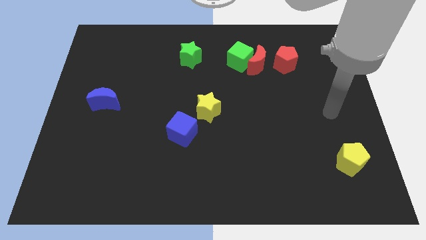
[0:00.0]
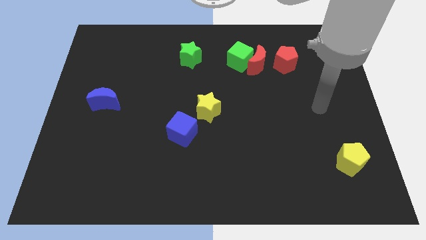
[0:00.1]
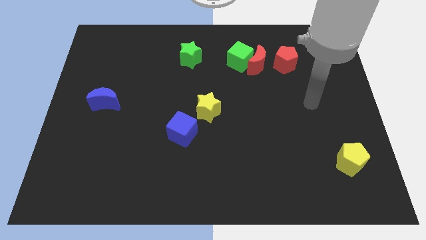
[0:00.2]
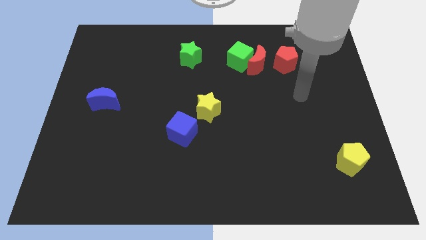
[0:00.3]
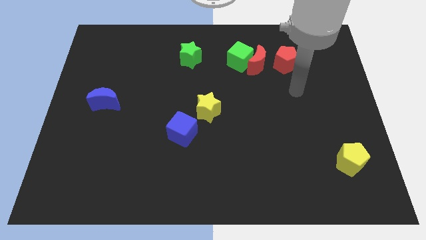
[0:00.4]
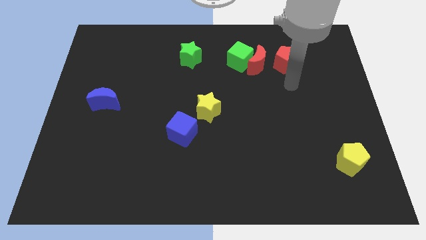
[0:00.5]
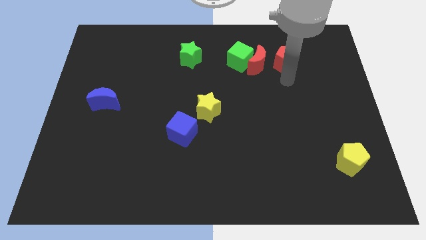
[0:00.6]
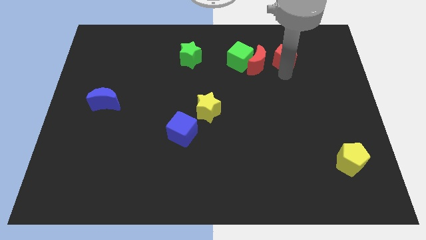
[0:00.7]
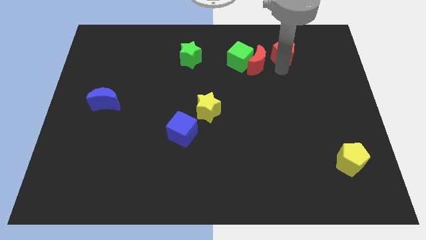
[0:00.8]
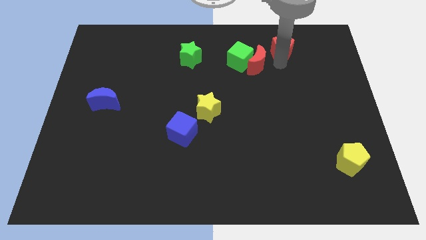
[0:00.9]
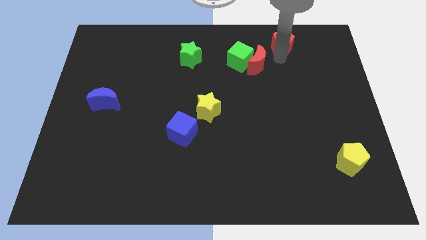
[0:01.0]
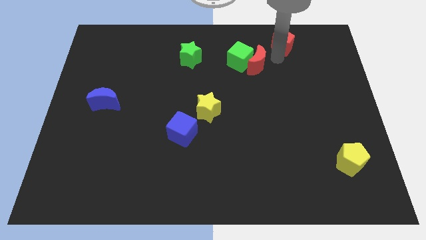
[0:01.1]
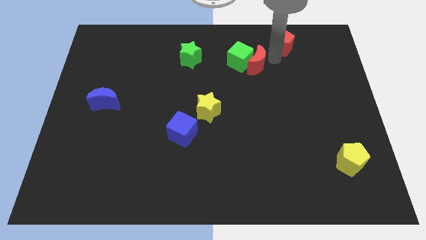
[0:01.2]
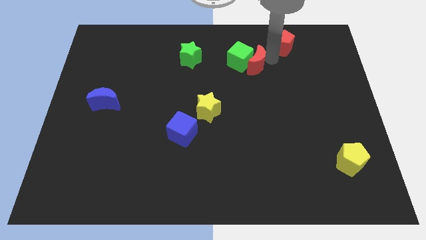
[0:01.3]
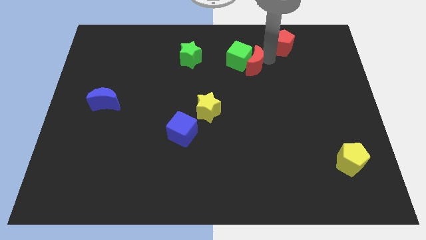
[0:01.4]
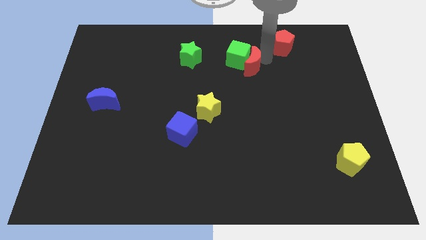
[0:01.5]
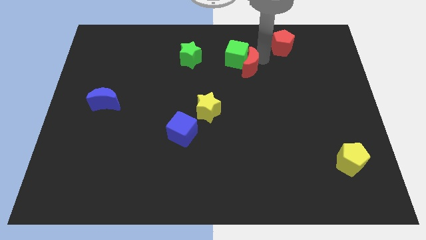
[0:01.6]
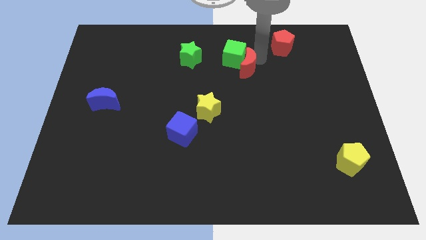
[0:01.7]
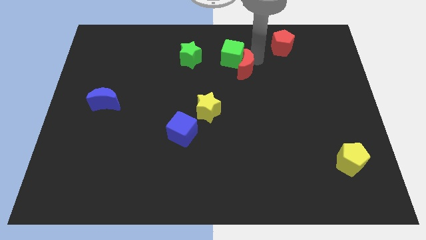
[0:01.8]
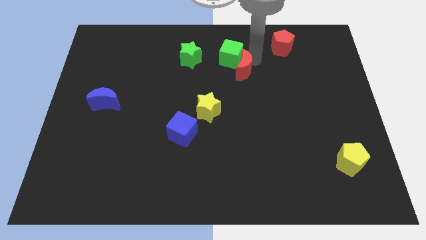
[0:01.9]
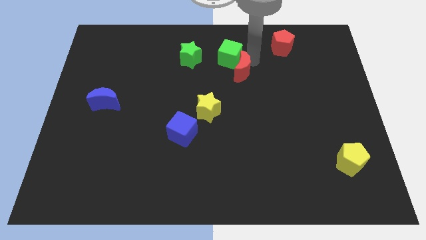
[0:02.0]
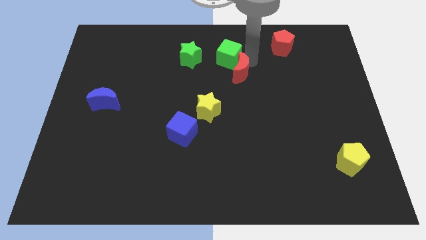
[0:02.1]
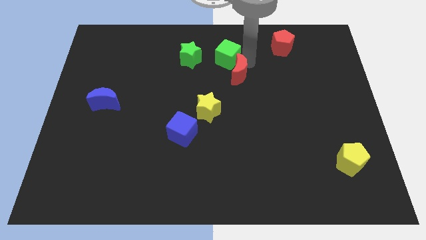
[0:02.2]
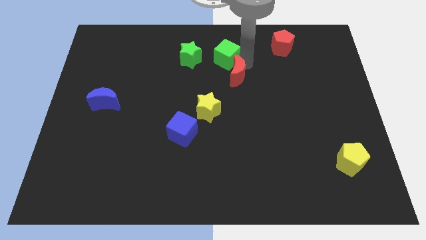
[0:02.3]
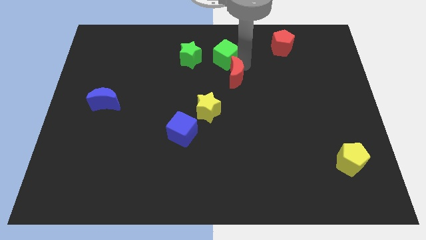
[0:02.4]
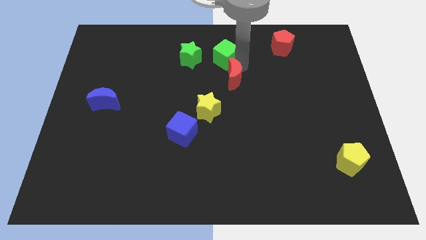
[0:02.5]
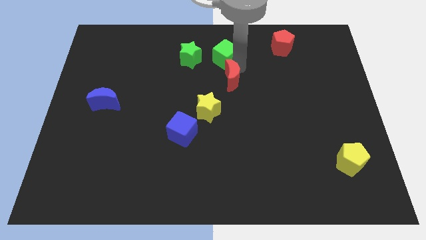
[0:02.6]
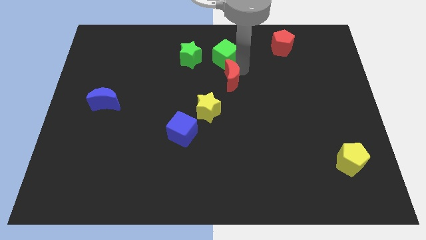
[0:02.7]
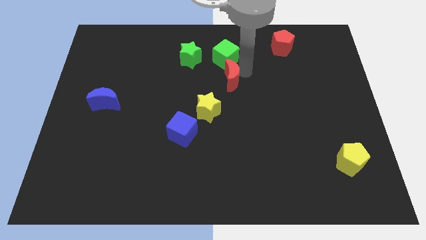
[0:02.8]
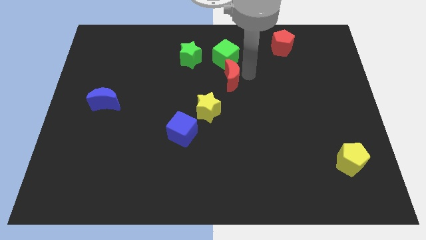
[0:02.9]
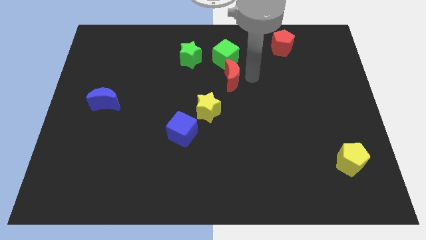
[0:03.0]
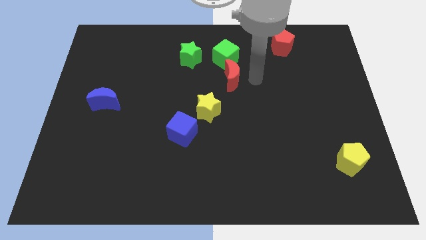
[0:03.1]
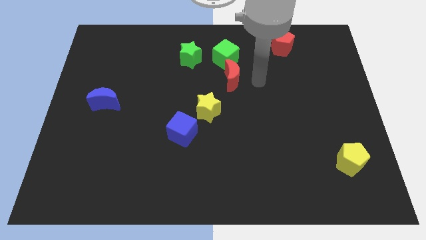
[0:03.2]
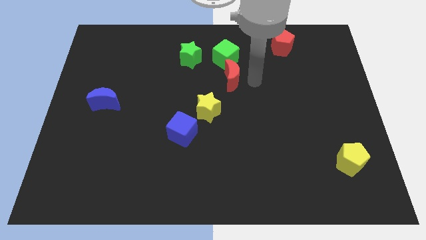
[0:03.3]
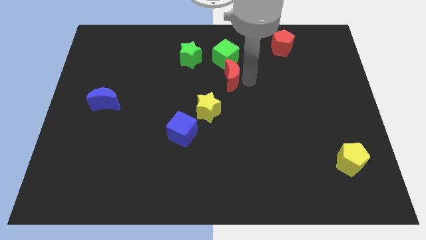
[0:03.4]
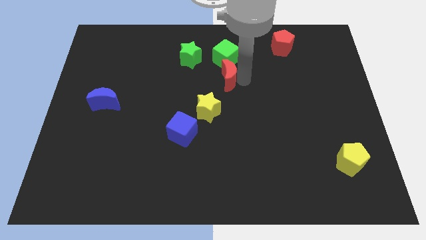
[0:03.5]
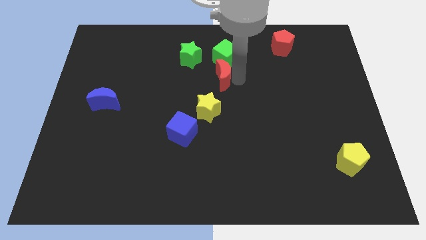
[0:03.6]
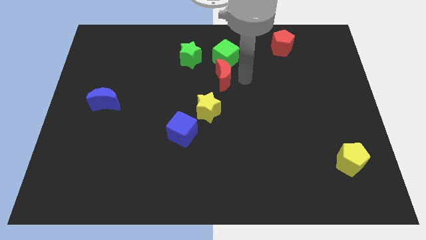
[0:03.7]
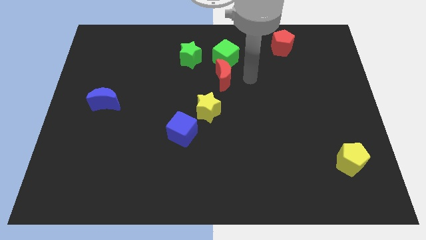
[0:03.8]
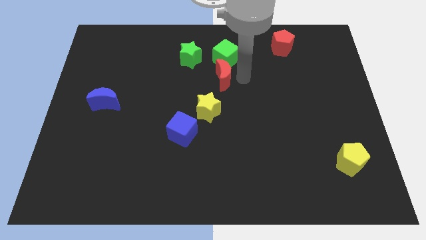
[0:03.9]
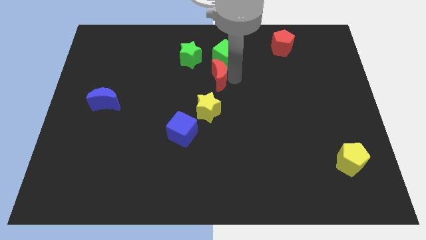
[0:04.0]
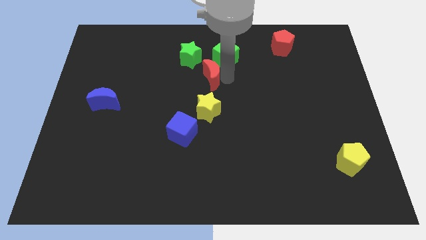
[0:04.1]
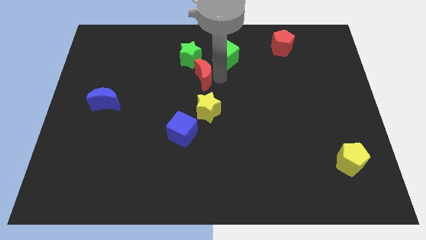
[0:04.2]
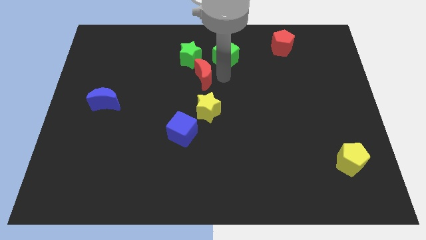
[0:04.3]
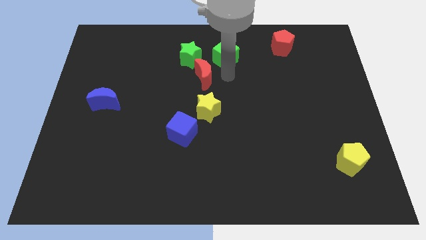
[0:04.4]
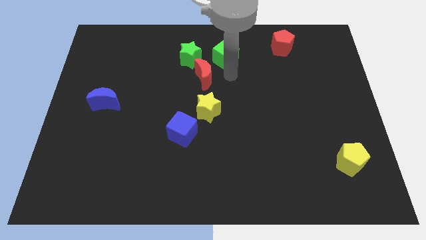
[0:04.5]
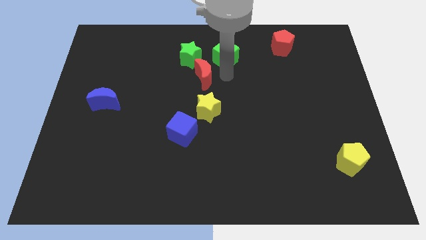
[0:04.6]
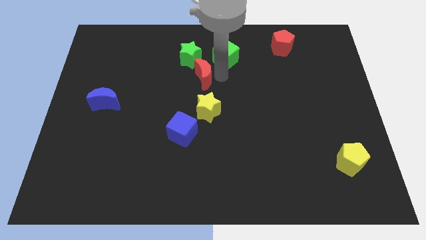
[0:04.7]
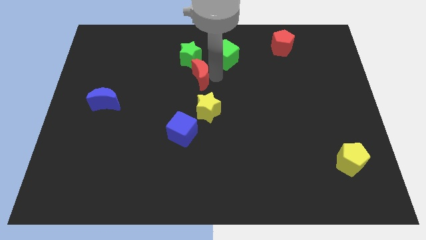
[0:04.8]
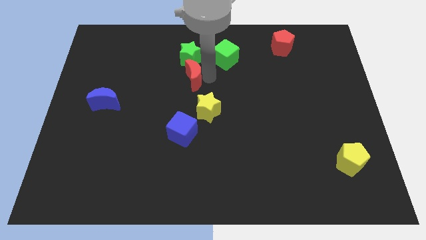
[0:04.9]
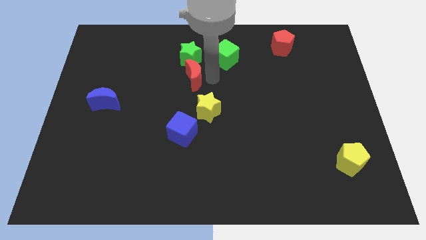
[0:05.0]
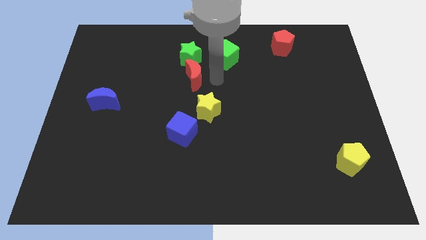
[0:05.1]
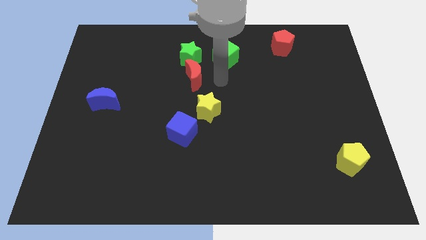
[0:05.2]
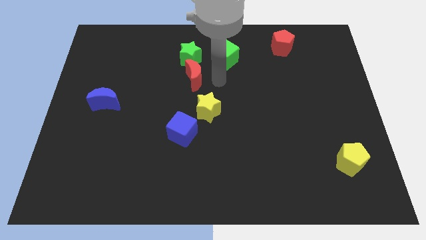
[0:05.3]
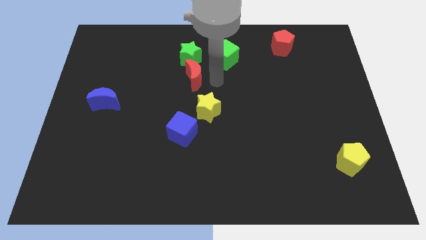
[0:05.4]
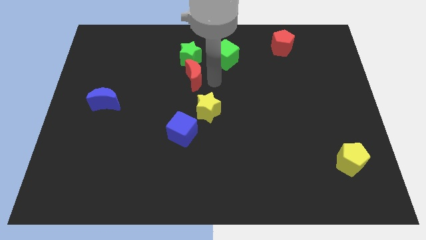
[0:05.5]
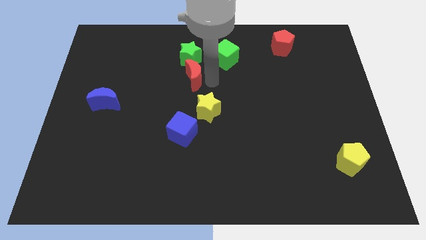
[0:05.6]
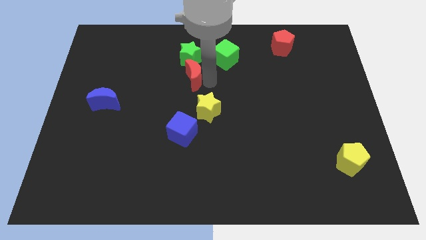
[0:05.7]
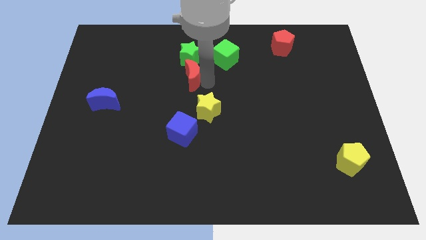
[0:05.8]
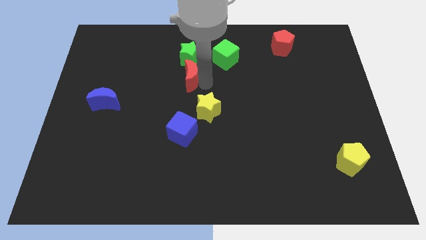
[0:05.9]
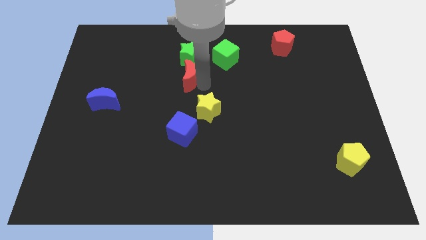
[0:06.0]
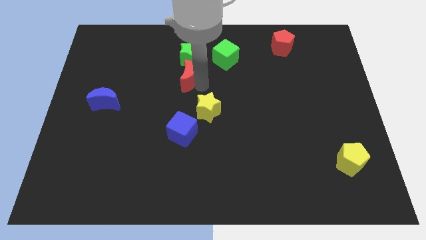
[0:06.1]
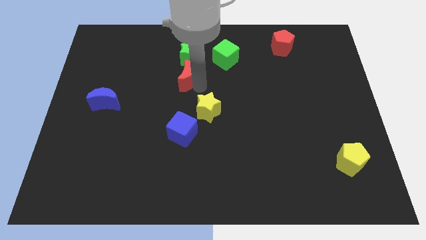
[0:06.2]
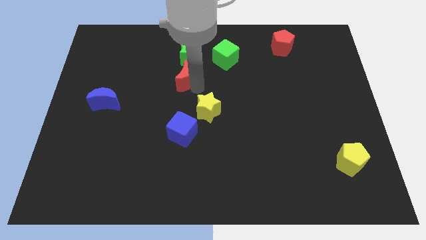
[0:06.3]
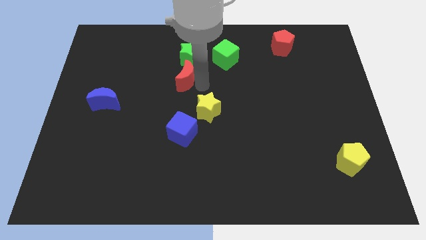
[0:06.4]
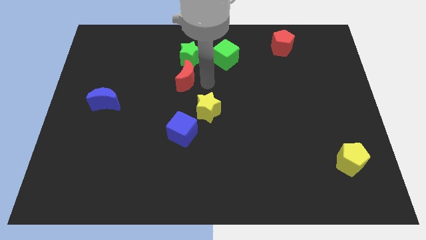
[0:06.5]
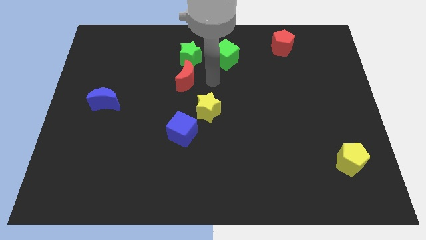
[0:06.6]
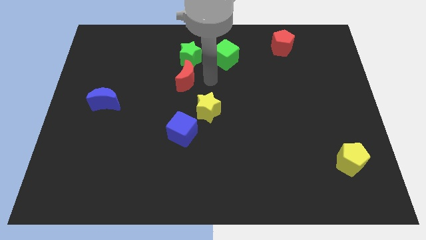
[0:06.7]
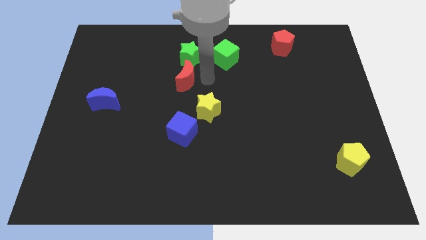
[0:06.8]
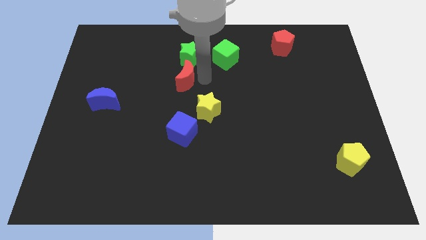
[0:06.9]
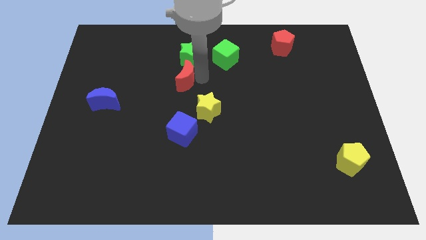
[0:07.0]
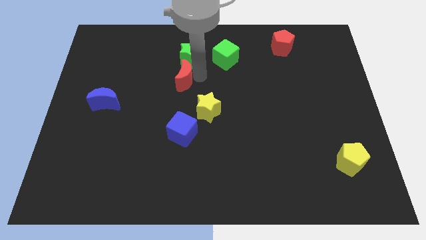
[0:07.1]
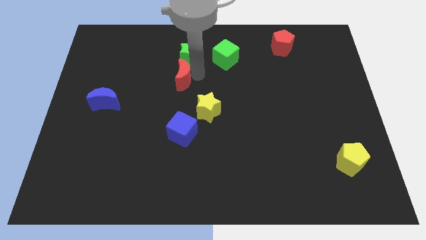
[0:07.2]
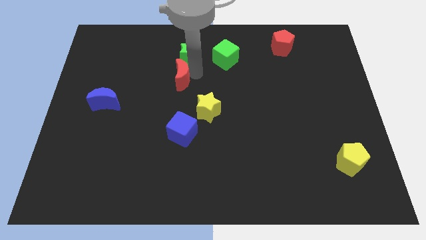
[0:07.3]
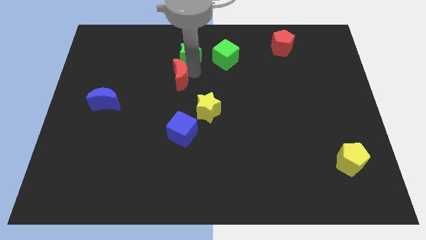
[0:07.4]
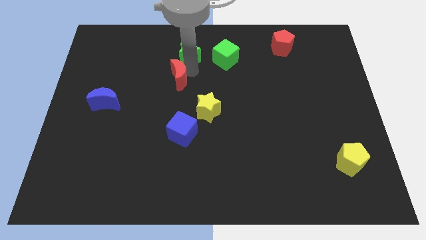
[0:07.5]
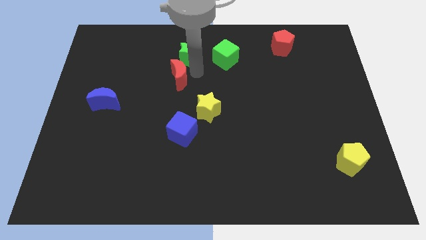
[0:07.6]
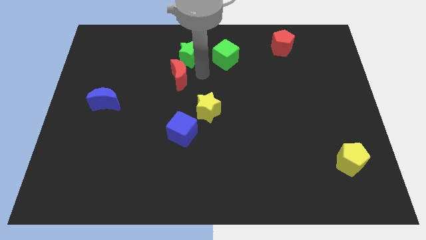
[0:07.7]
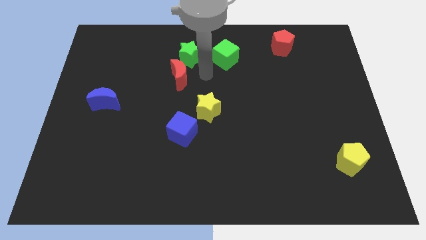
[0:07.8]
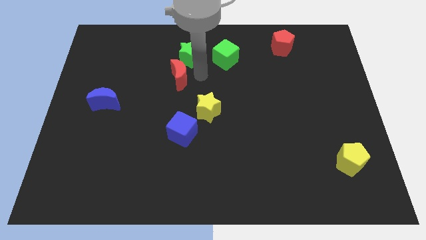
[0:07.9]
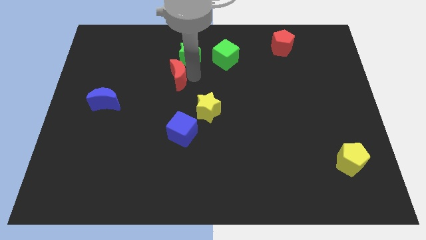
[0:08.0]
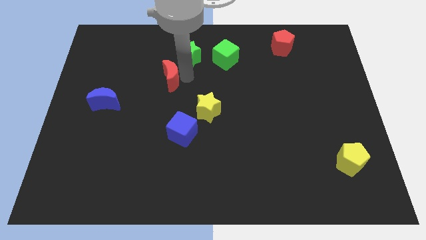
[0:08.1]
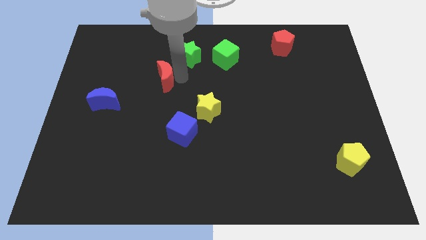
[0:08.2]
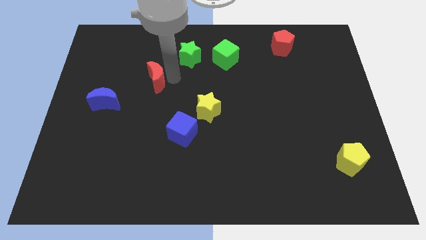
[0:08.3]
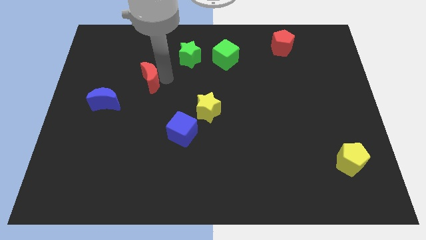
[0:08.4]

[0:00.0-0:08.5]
move the red moon to the top right of the blue moon
